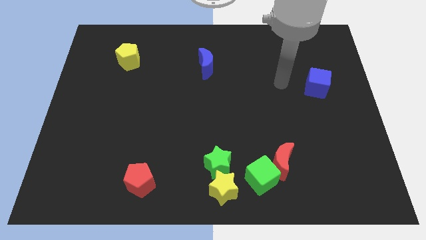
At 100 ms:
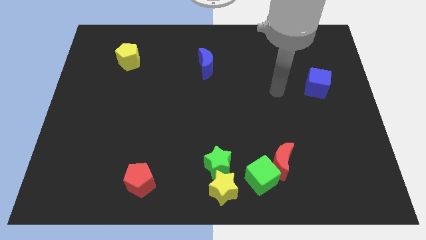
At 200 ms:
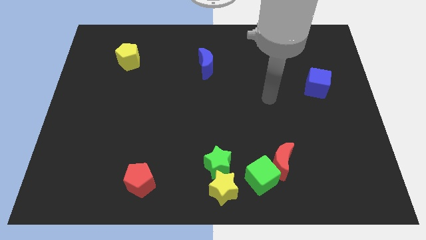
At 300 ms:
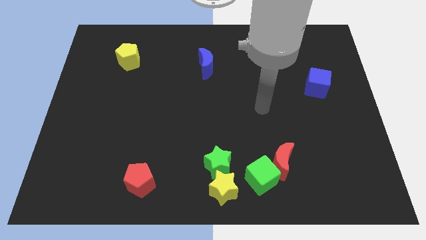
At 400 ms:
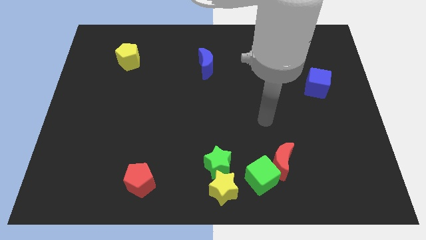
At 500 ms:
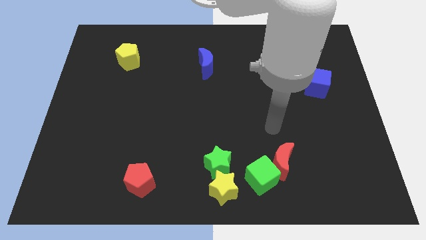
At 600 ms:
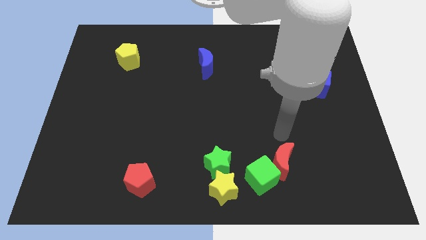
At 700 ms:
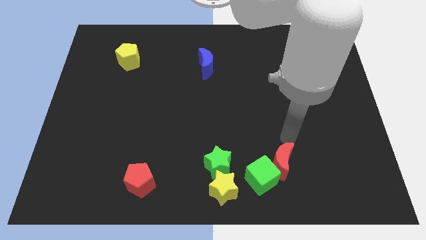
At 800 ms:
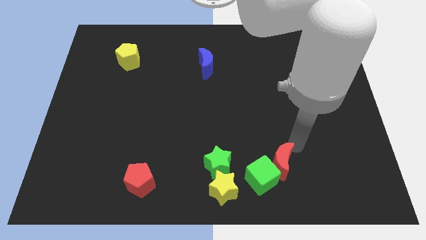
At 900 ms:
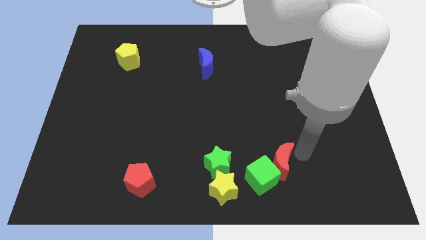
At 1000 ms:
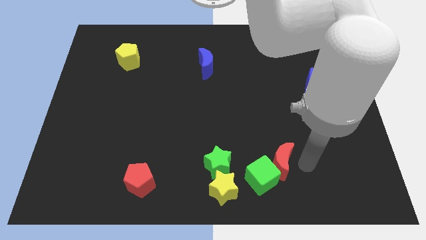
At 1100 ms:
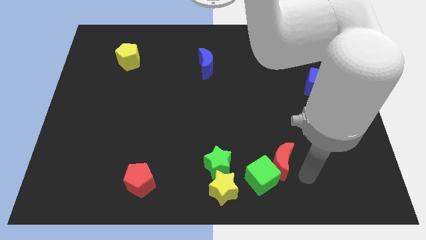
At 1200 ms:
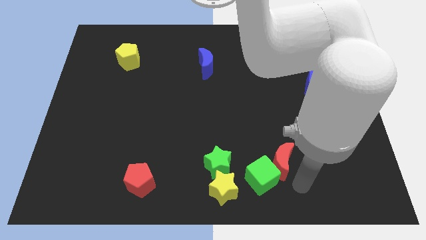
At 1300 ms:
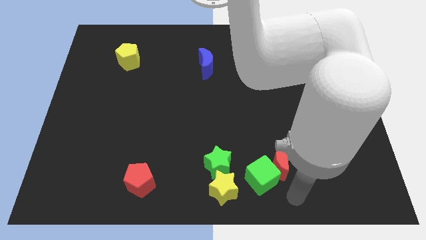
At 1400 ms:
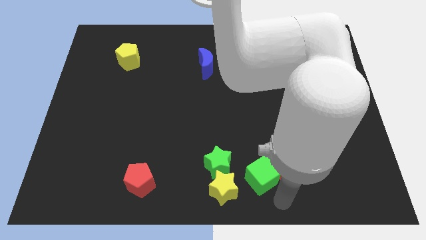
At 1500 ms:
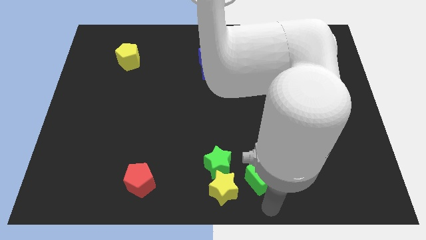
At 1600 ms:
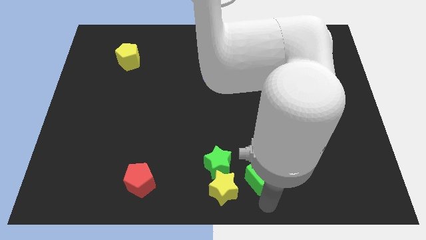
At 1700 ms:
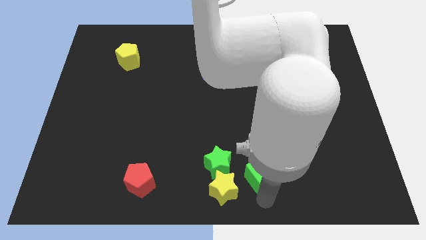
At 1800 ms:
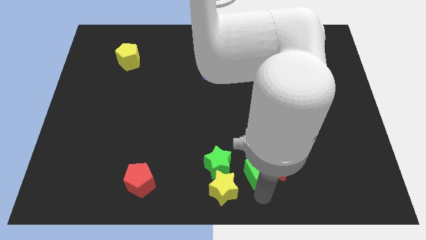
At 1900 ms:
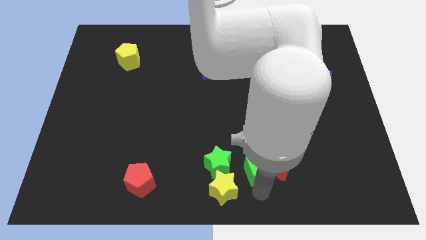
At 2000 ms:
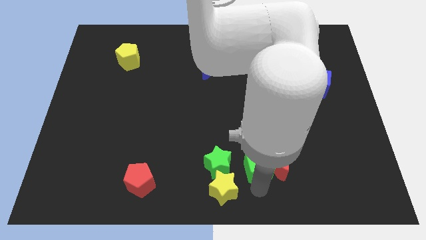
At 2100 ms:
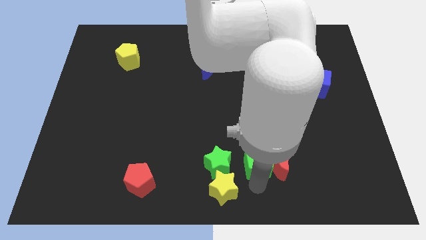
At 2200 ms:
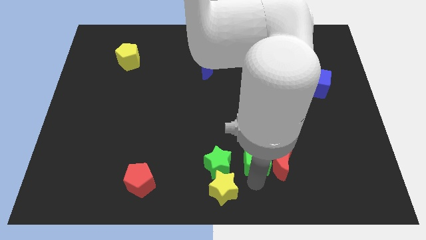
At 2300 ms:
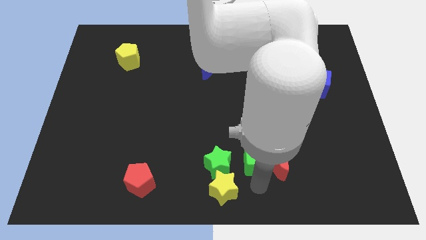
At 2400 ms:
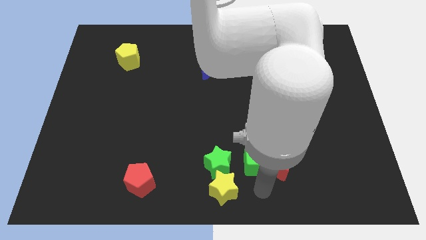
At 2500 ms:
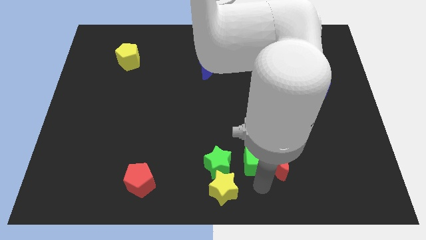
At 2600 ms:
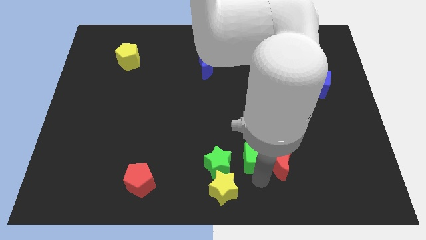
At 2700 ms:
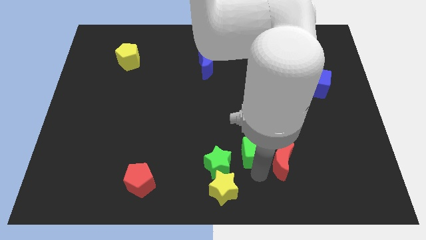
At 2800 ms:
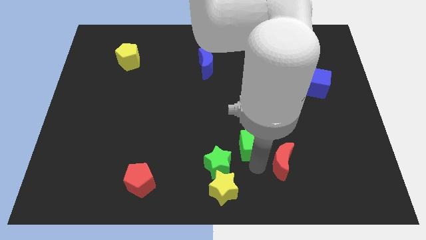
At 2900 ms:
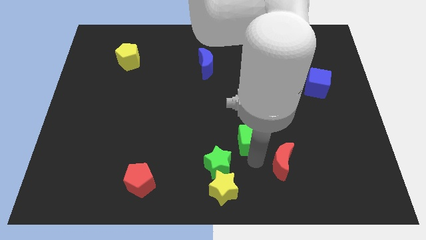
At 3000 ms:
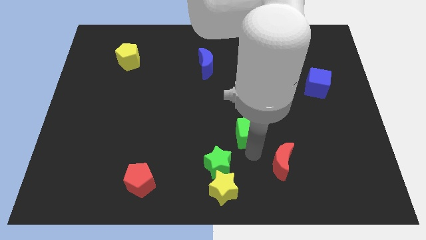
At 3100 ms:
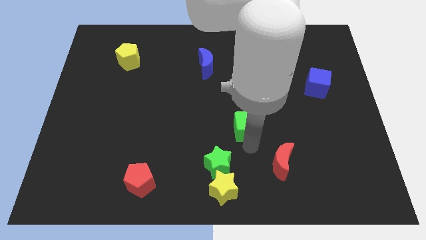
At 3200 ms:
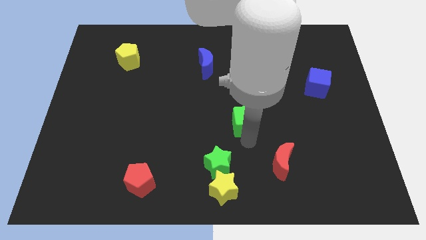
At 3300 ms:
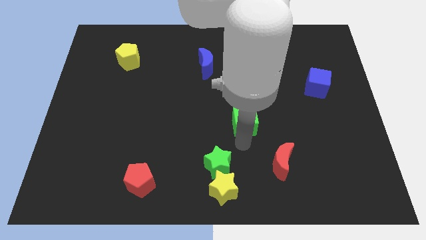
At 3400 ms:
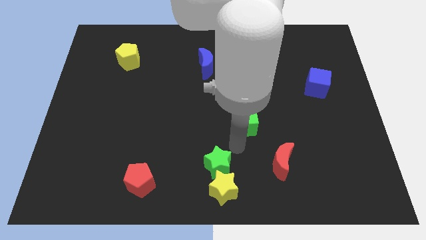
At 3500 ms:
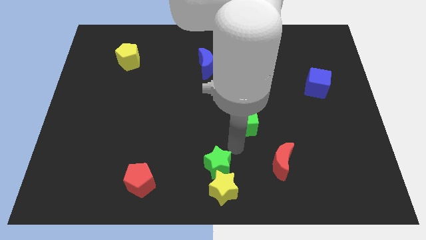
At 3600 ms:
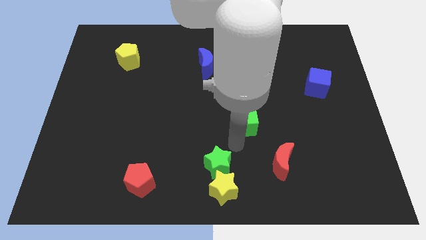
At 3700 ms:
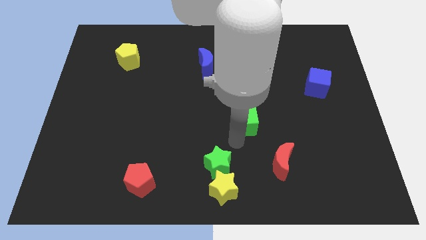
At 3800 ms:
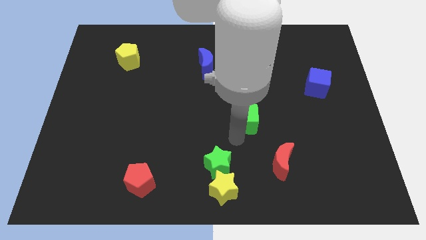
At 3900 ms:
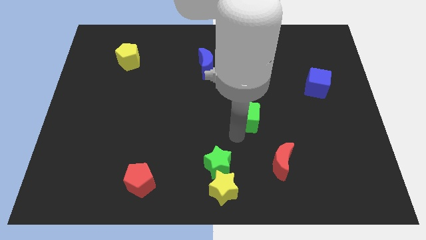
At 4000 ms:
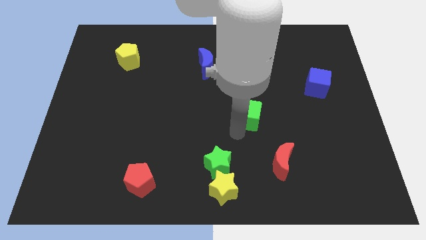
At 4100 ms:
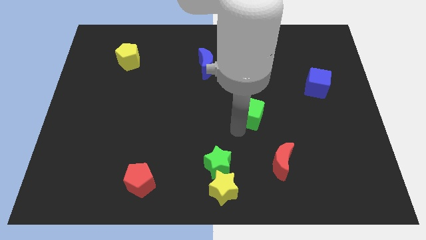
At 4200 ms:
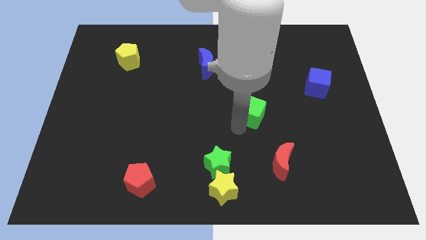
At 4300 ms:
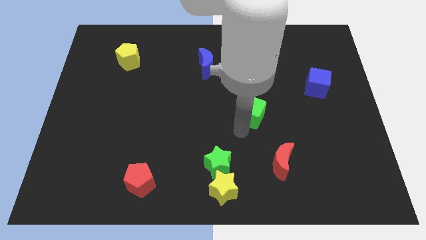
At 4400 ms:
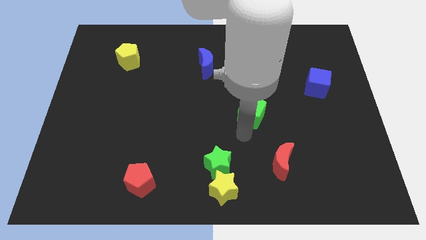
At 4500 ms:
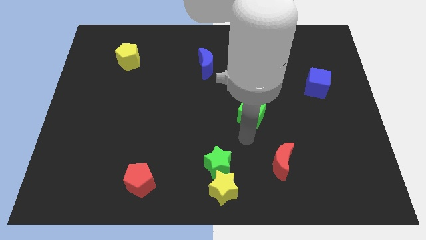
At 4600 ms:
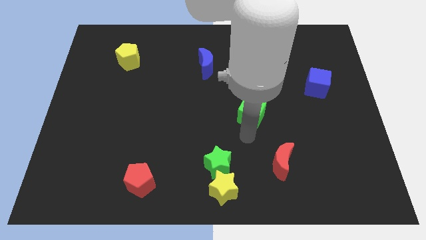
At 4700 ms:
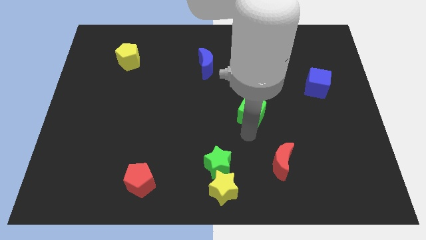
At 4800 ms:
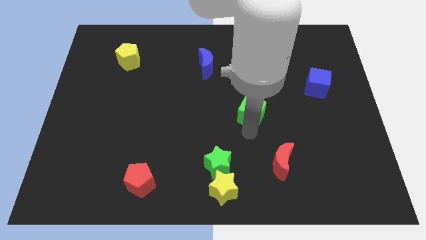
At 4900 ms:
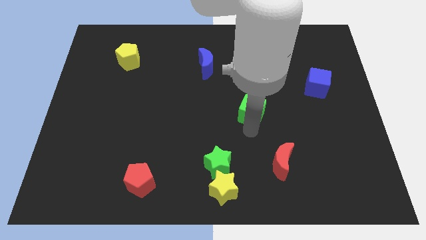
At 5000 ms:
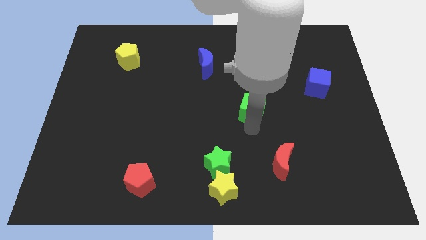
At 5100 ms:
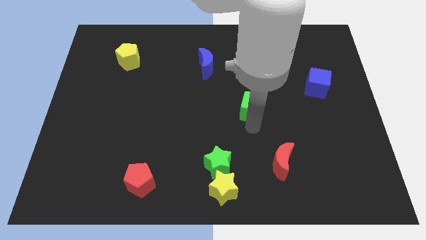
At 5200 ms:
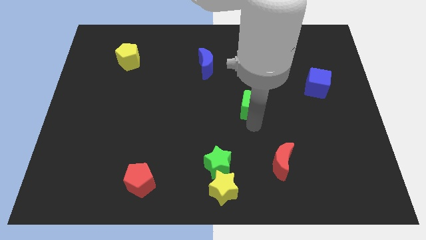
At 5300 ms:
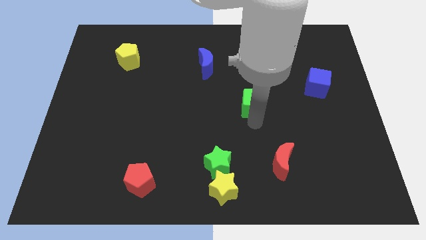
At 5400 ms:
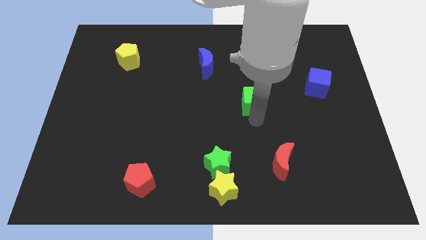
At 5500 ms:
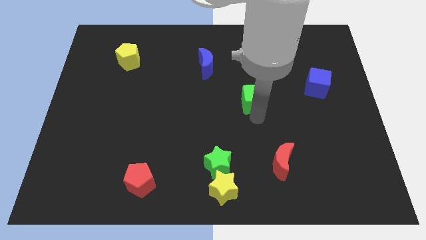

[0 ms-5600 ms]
move the green cube upwards

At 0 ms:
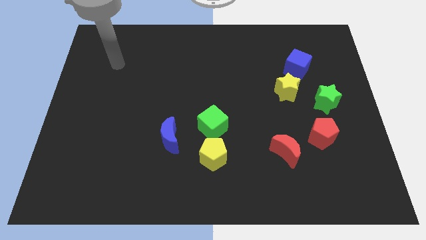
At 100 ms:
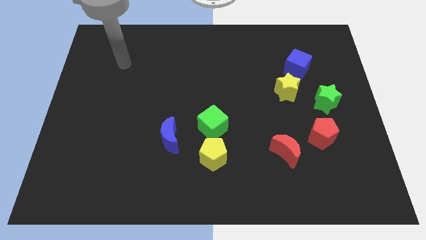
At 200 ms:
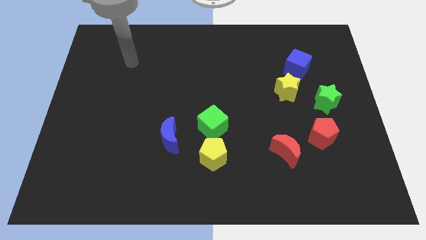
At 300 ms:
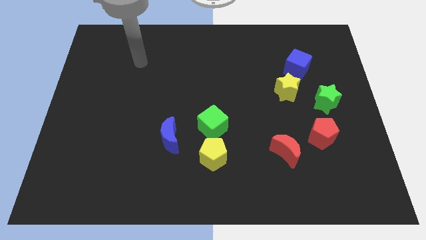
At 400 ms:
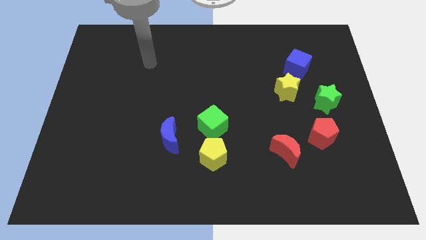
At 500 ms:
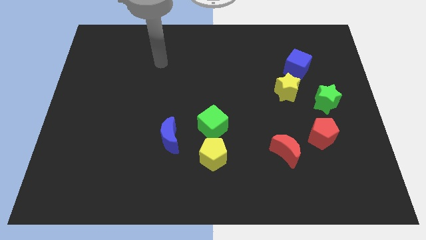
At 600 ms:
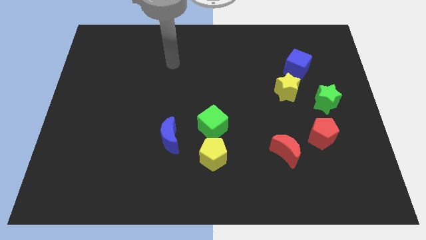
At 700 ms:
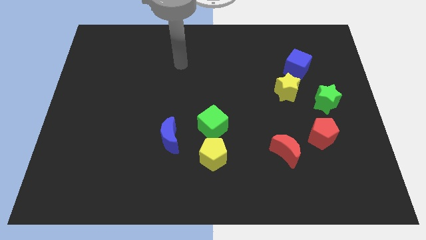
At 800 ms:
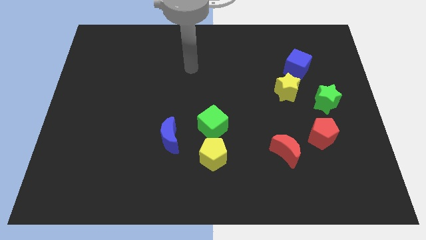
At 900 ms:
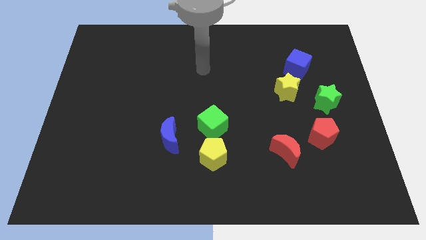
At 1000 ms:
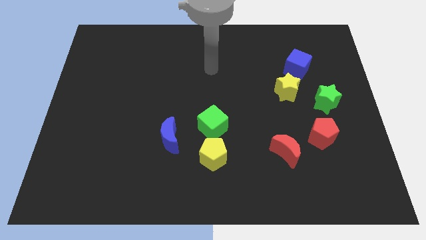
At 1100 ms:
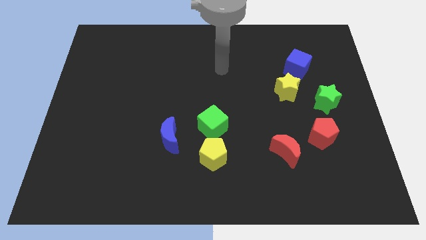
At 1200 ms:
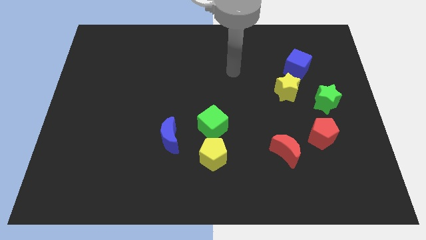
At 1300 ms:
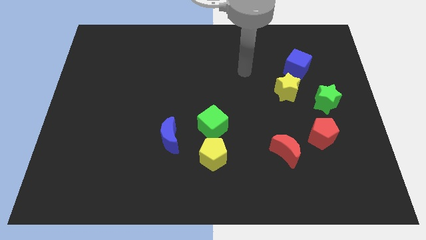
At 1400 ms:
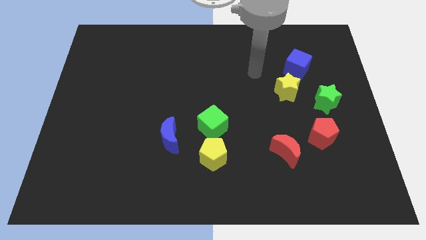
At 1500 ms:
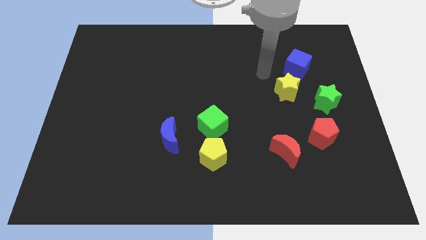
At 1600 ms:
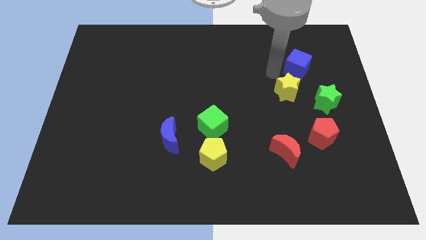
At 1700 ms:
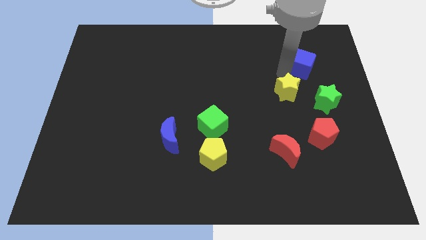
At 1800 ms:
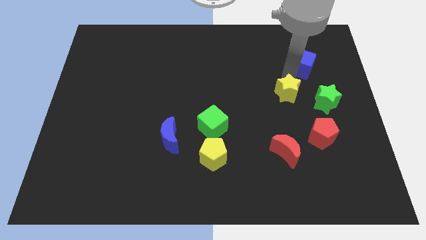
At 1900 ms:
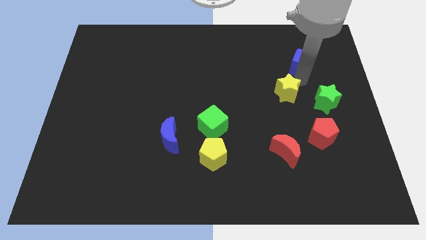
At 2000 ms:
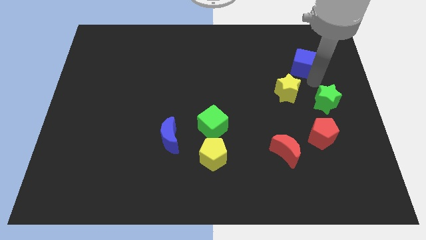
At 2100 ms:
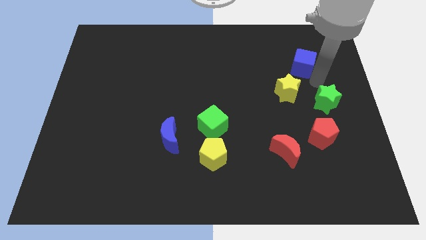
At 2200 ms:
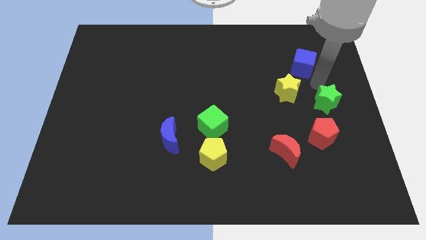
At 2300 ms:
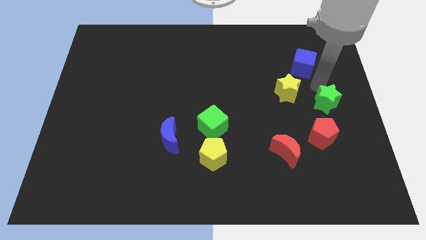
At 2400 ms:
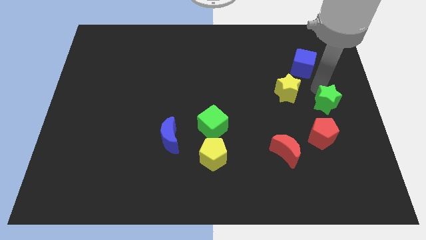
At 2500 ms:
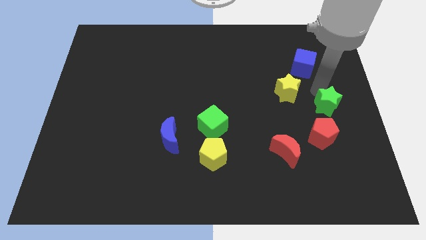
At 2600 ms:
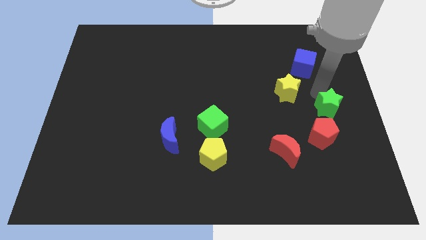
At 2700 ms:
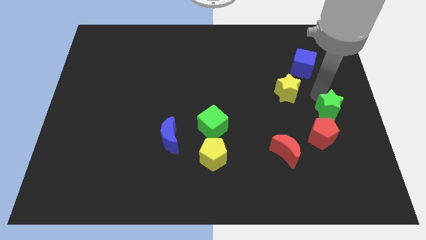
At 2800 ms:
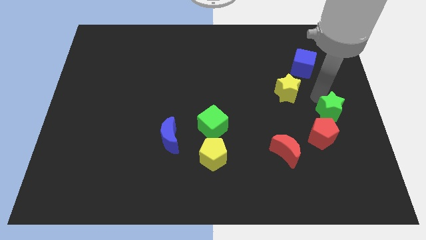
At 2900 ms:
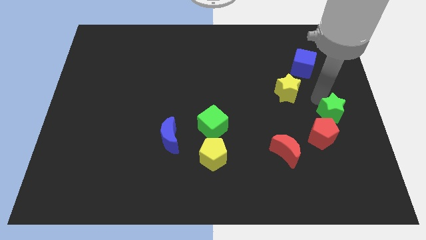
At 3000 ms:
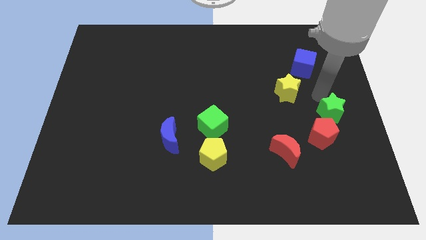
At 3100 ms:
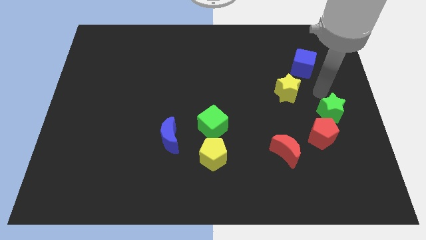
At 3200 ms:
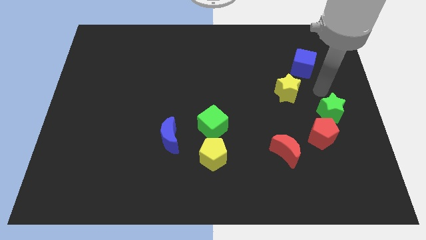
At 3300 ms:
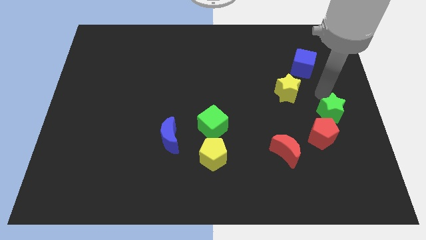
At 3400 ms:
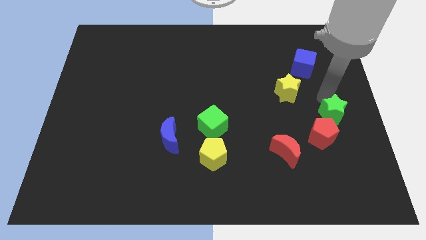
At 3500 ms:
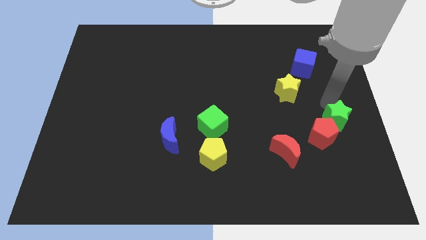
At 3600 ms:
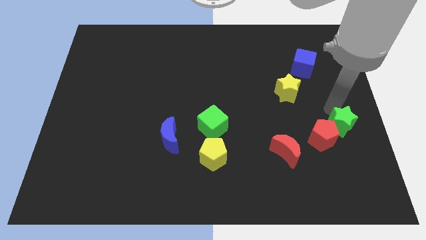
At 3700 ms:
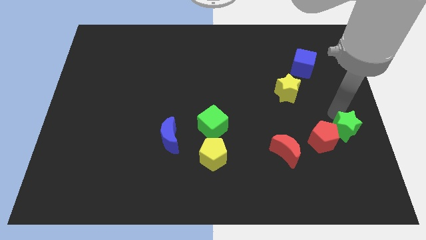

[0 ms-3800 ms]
move the green star a bit down
